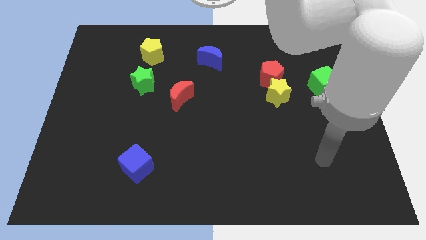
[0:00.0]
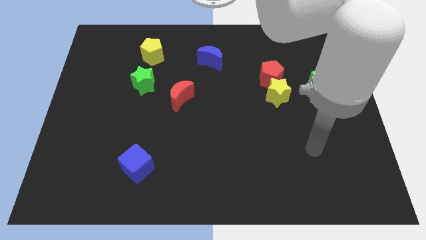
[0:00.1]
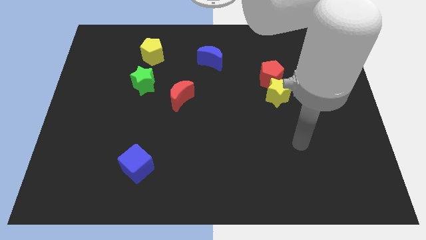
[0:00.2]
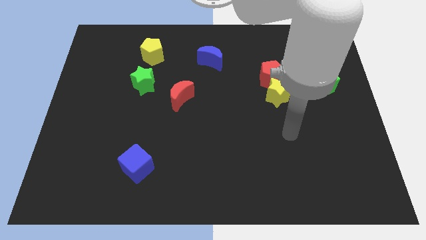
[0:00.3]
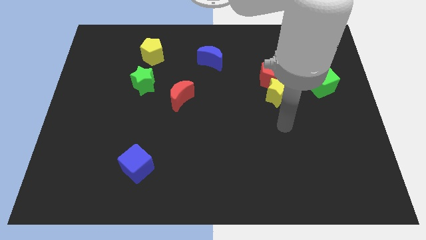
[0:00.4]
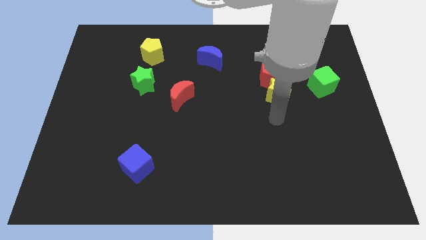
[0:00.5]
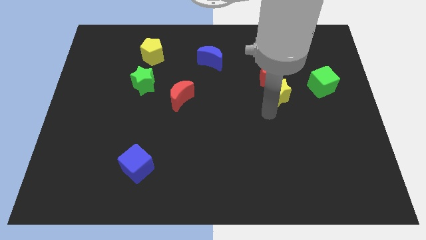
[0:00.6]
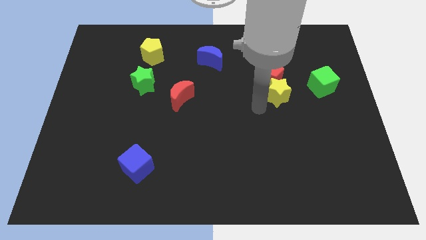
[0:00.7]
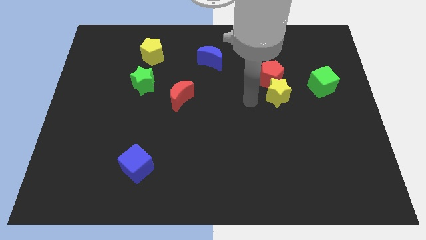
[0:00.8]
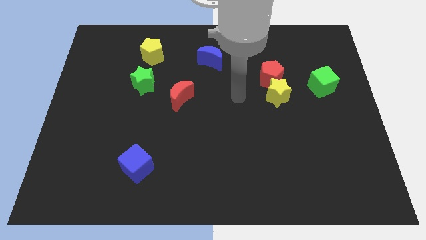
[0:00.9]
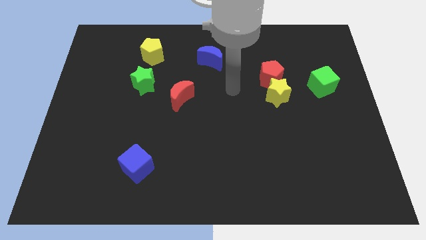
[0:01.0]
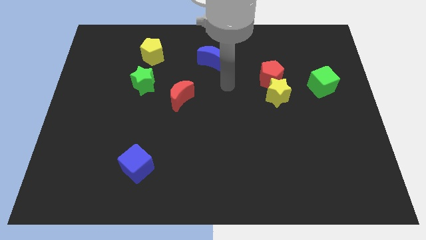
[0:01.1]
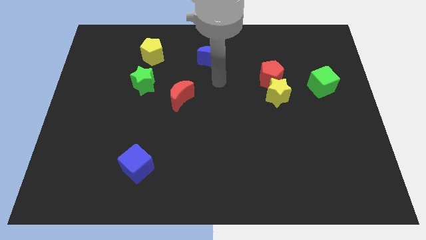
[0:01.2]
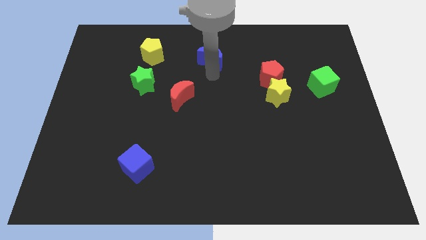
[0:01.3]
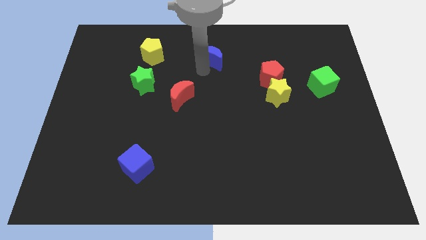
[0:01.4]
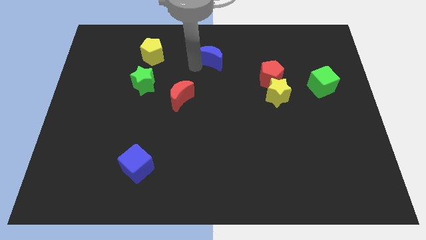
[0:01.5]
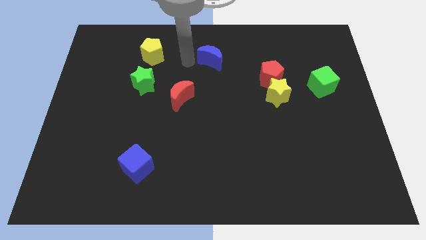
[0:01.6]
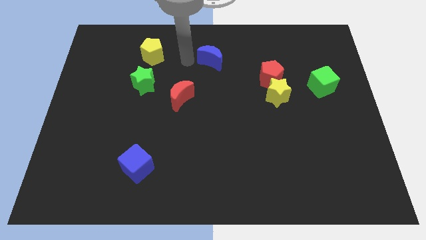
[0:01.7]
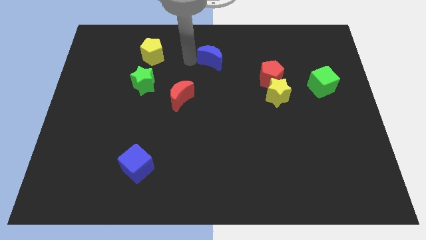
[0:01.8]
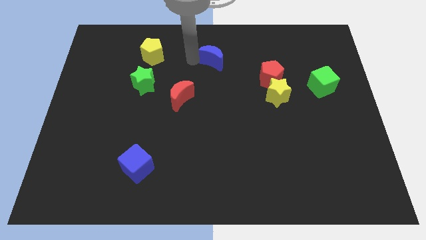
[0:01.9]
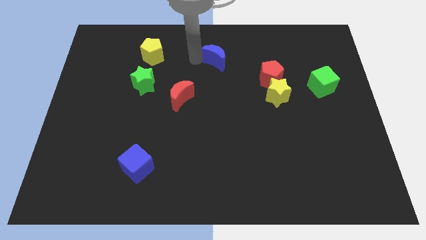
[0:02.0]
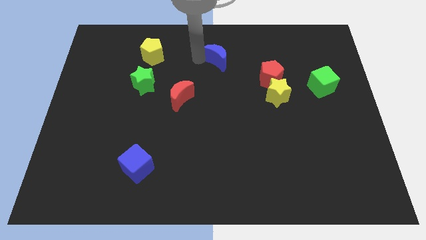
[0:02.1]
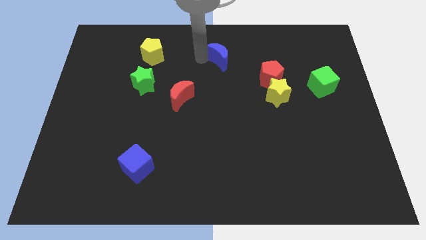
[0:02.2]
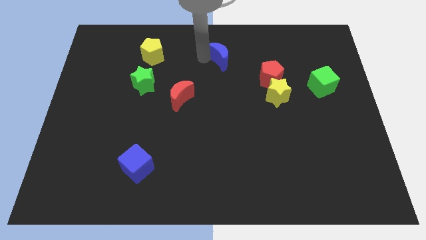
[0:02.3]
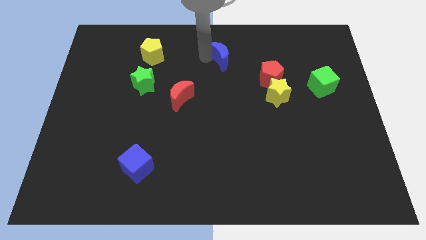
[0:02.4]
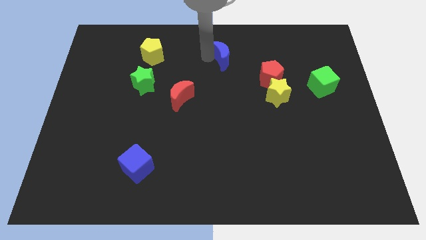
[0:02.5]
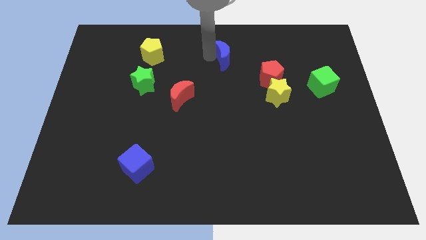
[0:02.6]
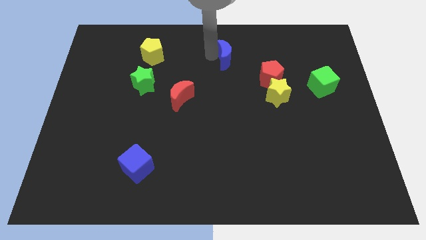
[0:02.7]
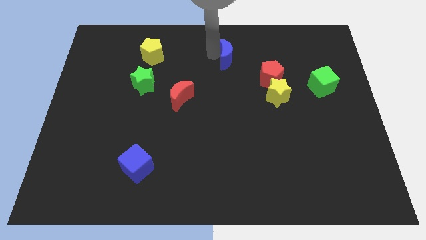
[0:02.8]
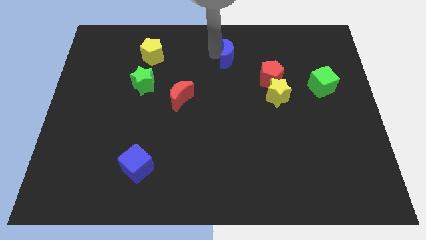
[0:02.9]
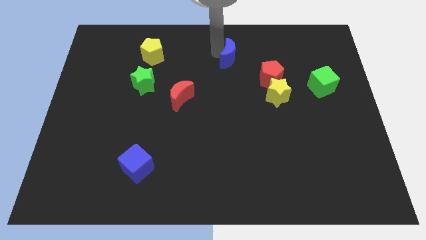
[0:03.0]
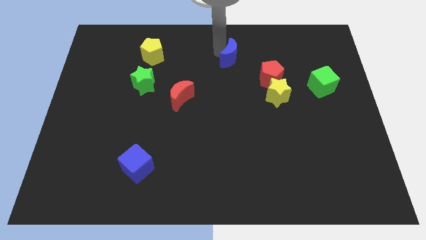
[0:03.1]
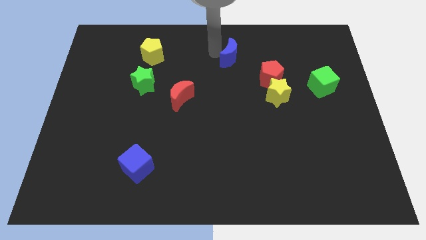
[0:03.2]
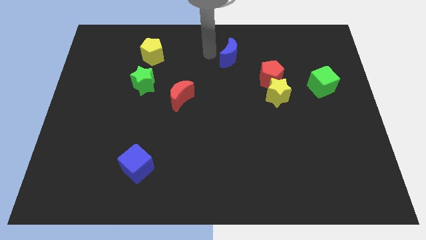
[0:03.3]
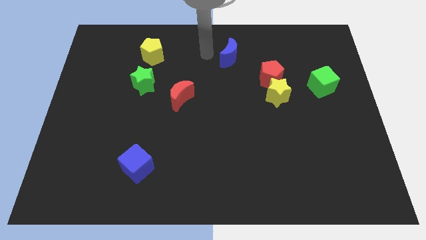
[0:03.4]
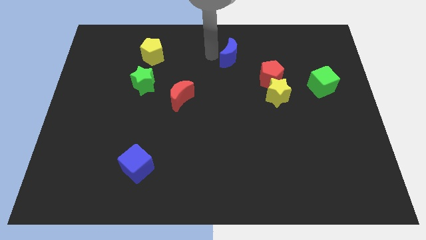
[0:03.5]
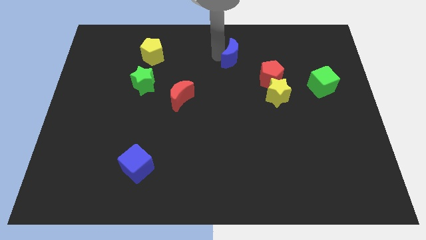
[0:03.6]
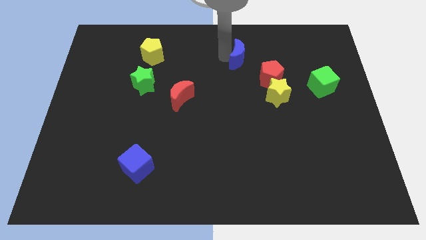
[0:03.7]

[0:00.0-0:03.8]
push the blue moon a little to the right

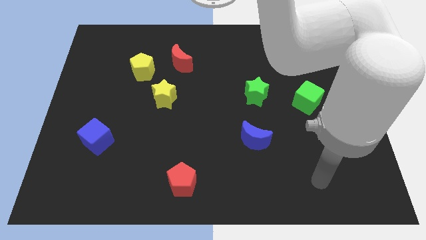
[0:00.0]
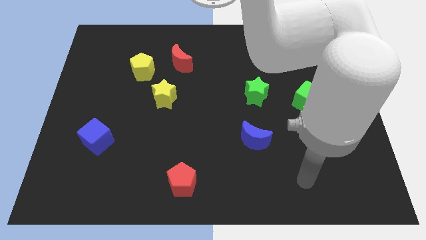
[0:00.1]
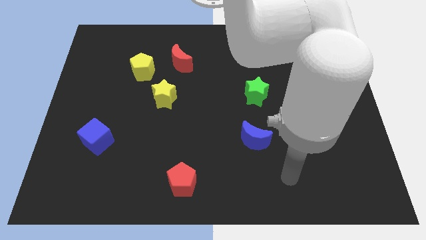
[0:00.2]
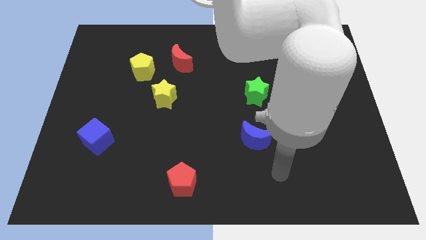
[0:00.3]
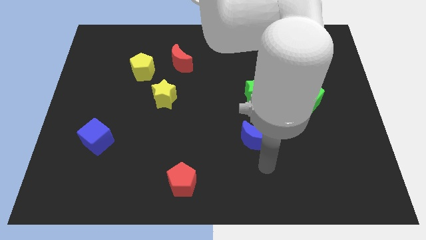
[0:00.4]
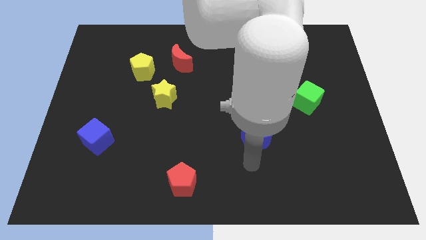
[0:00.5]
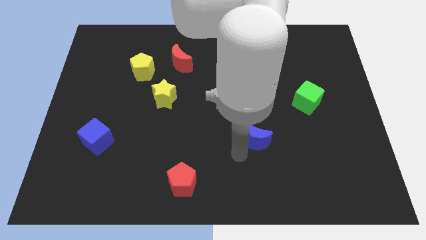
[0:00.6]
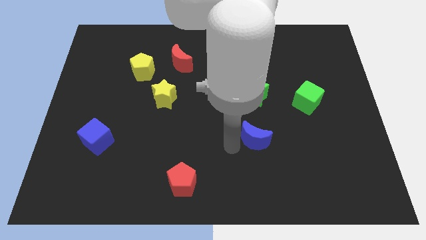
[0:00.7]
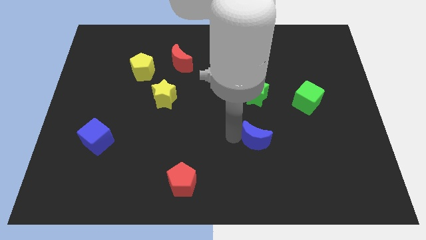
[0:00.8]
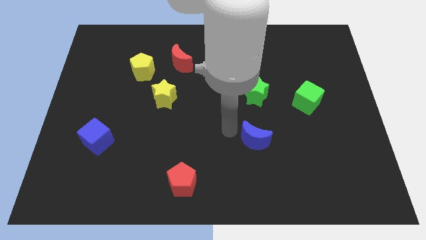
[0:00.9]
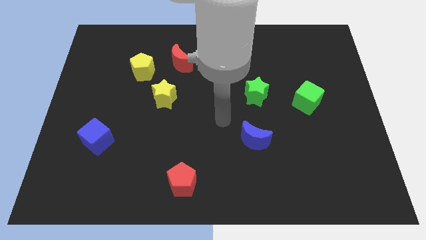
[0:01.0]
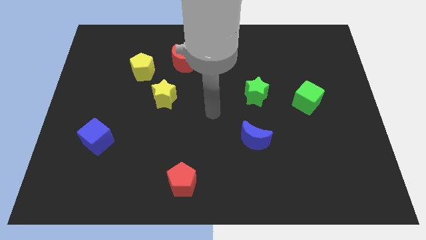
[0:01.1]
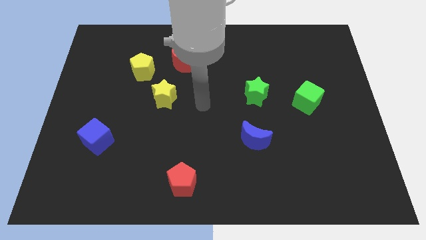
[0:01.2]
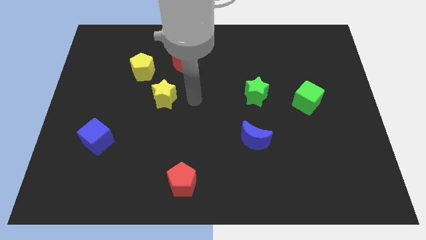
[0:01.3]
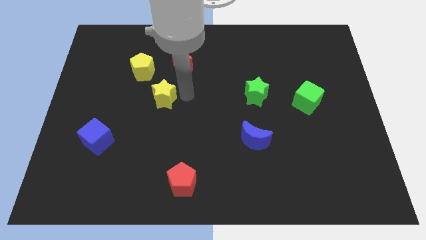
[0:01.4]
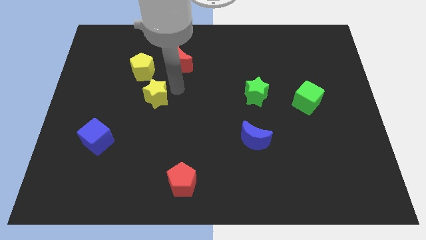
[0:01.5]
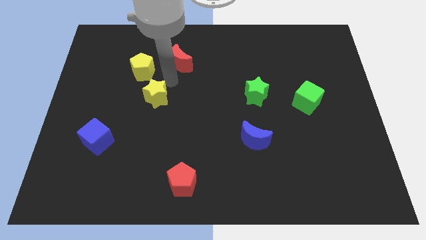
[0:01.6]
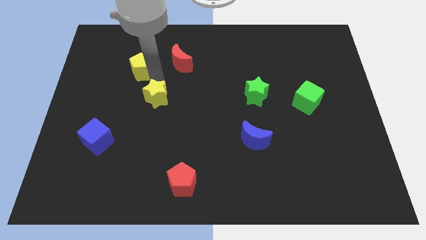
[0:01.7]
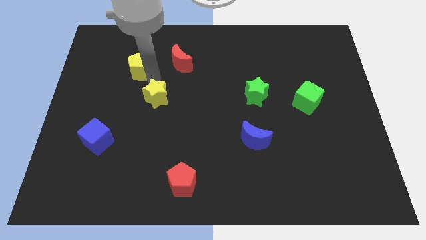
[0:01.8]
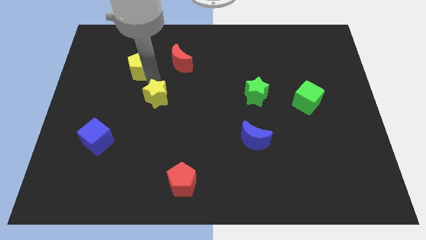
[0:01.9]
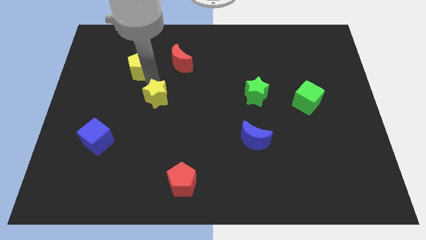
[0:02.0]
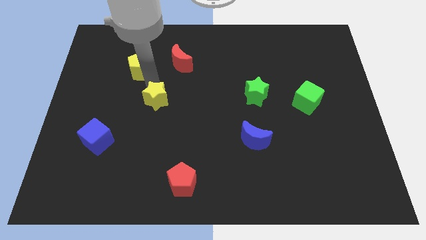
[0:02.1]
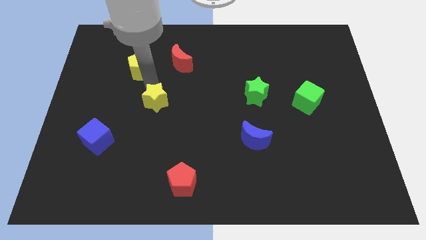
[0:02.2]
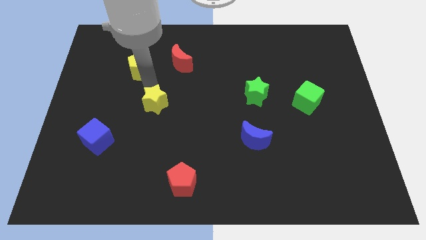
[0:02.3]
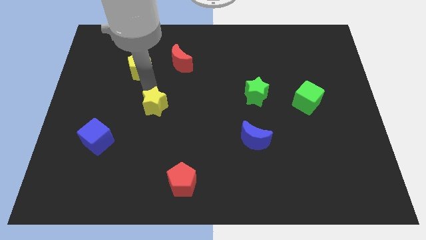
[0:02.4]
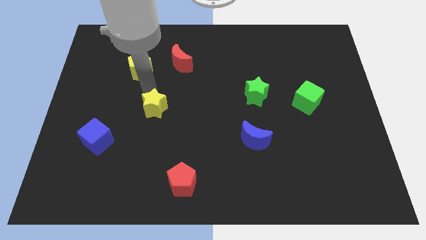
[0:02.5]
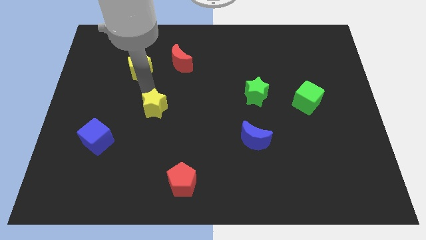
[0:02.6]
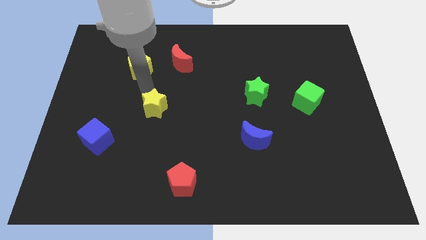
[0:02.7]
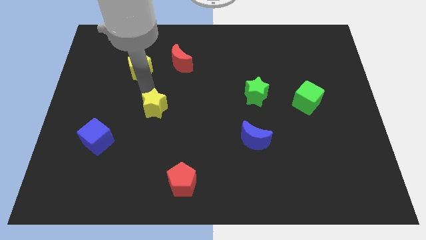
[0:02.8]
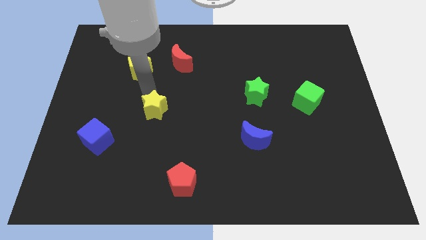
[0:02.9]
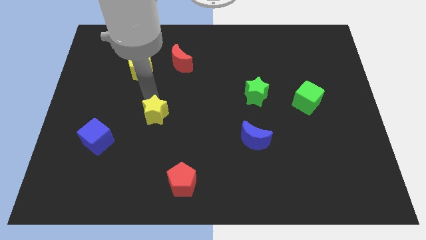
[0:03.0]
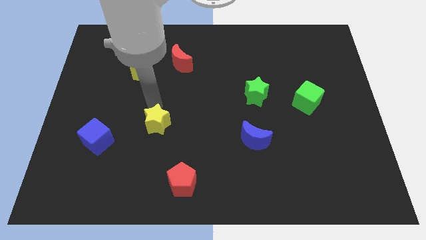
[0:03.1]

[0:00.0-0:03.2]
push the yellow star downwards slightly

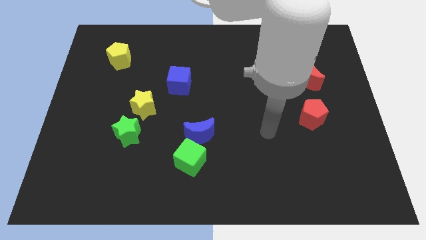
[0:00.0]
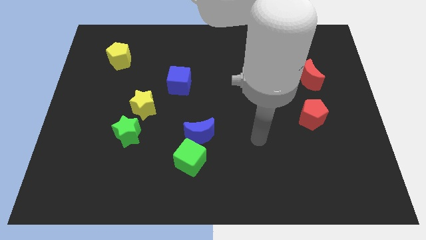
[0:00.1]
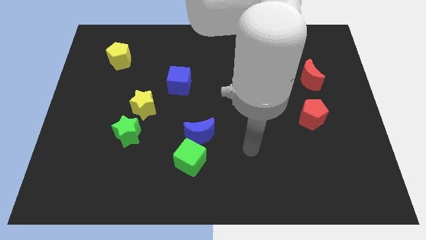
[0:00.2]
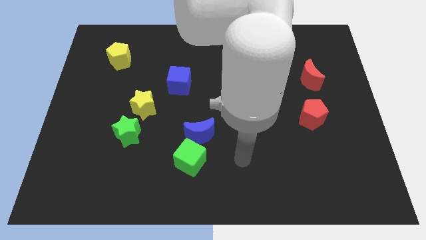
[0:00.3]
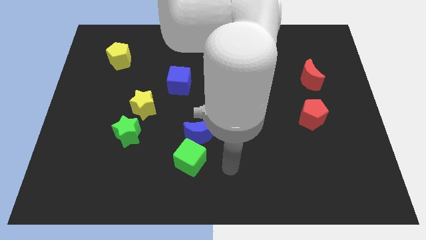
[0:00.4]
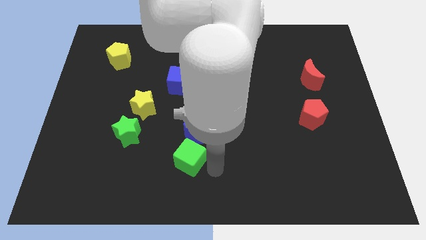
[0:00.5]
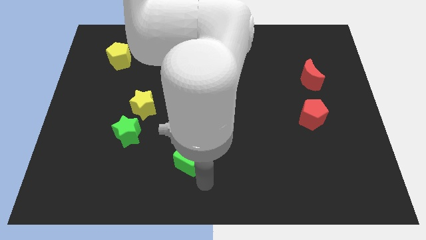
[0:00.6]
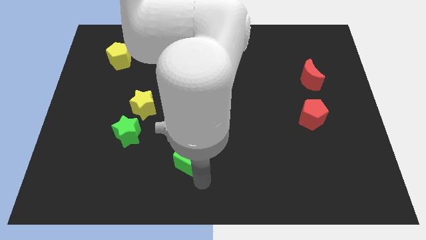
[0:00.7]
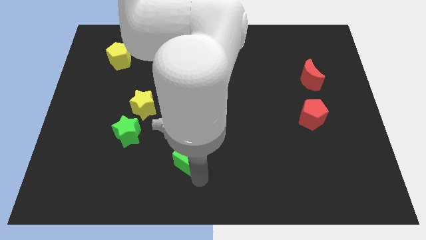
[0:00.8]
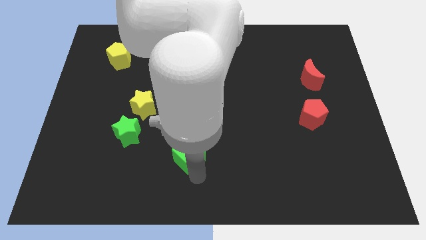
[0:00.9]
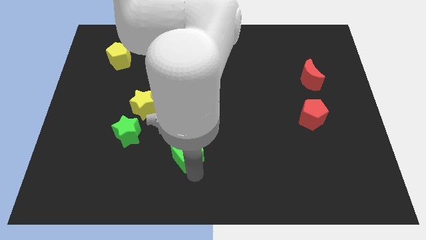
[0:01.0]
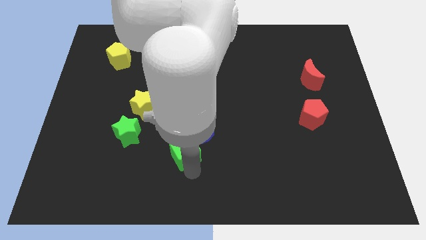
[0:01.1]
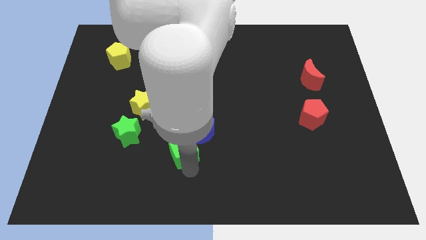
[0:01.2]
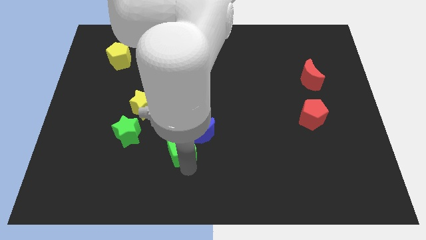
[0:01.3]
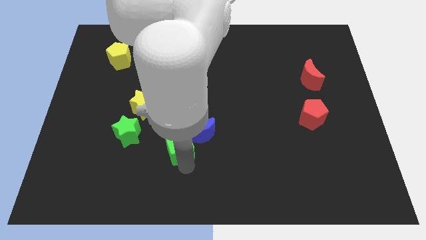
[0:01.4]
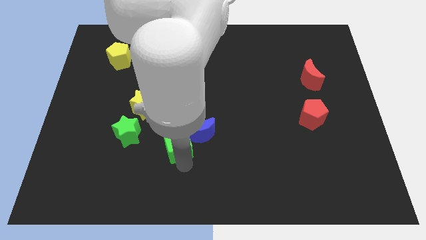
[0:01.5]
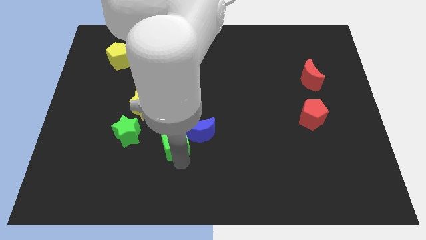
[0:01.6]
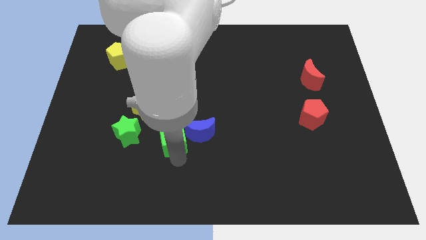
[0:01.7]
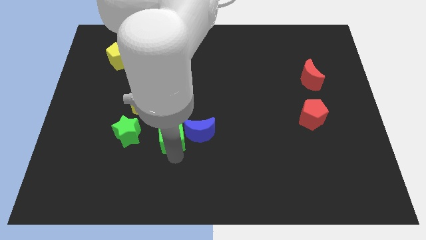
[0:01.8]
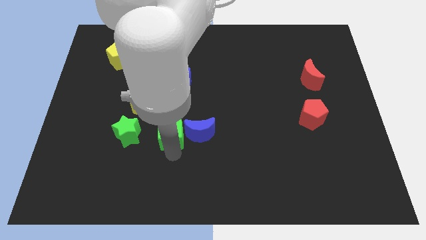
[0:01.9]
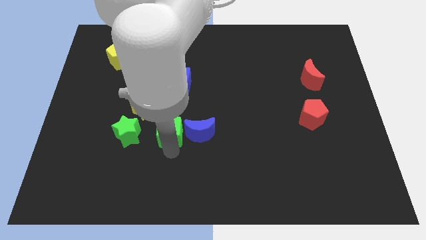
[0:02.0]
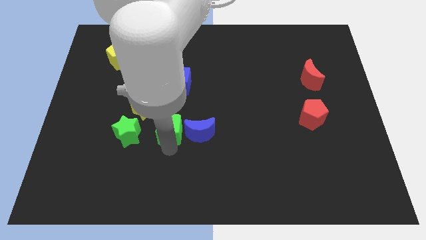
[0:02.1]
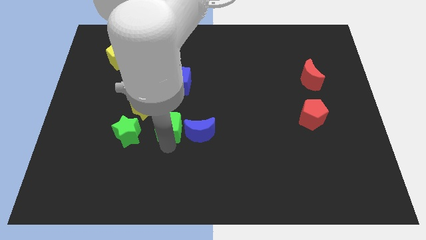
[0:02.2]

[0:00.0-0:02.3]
move the green cube upwards somewhat
